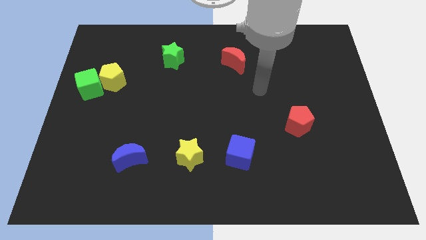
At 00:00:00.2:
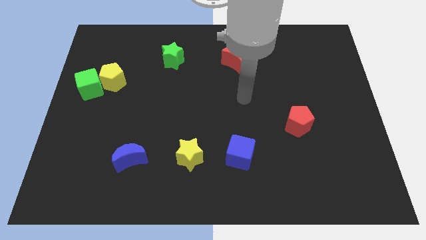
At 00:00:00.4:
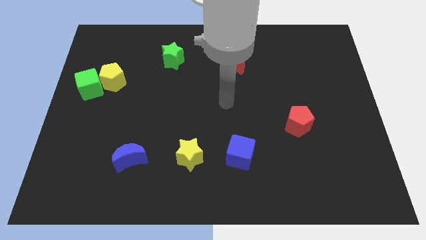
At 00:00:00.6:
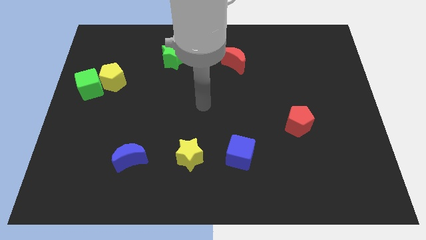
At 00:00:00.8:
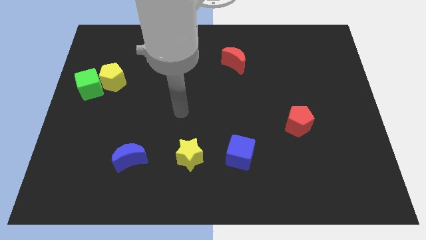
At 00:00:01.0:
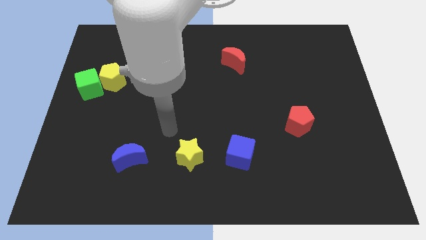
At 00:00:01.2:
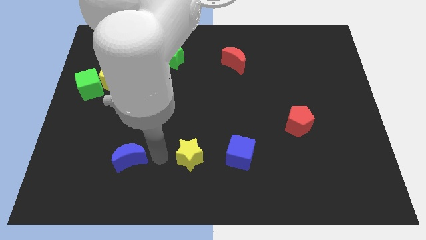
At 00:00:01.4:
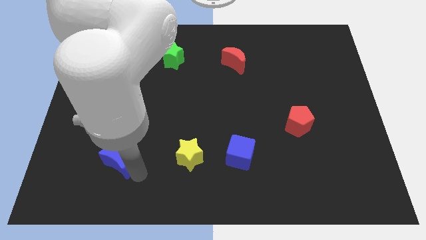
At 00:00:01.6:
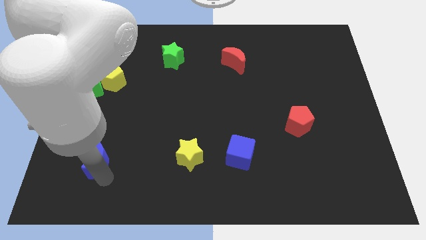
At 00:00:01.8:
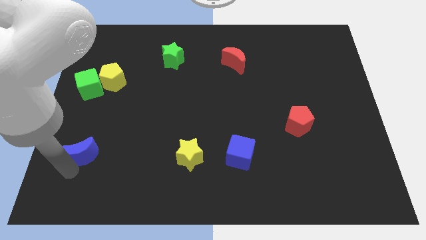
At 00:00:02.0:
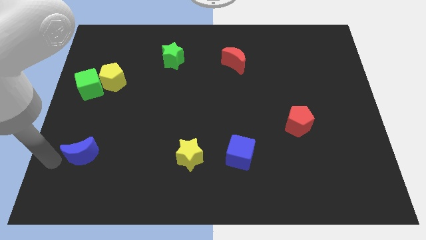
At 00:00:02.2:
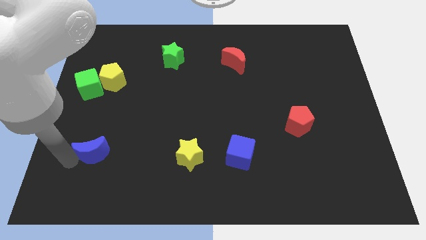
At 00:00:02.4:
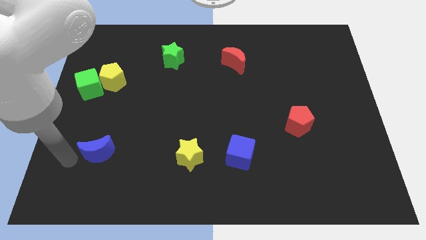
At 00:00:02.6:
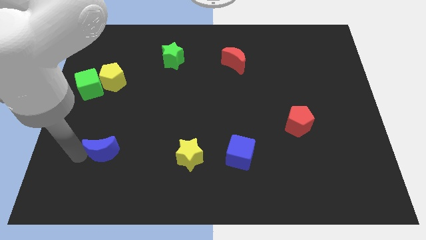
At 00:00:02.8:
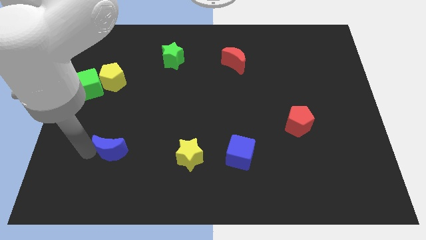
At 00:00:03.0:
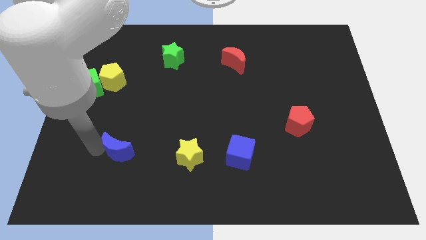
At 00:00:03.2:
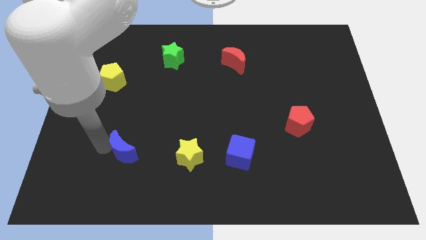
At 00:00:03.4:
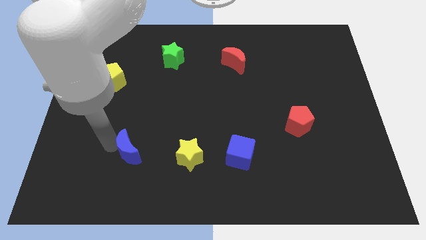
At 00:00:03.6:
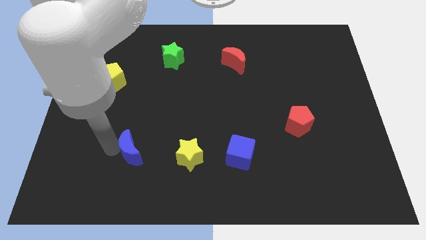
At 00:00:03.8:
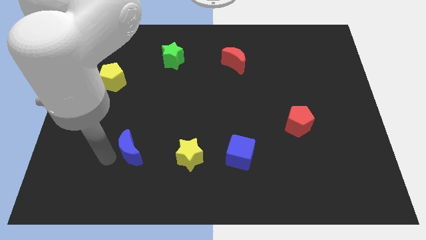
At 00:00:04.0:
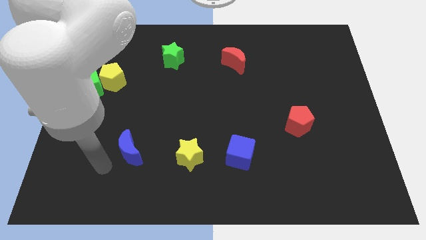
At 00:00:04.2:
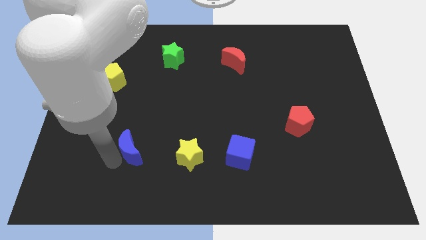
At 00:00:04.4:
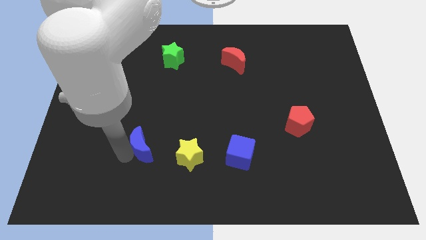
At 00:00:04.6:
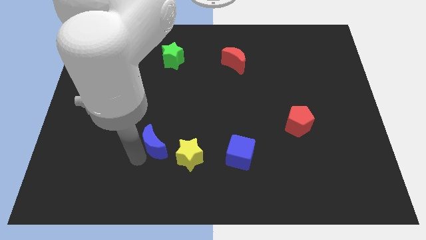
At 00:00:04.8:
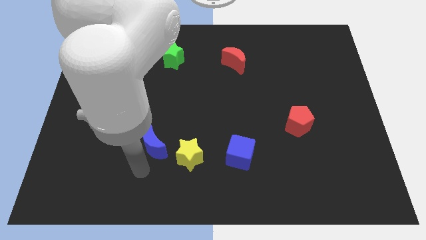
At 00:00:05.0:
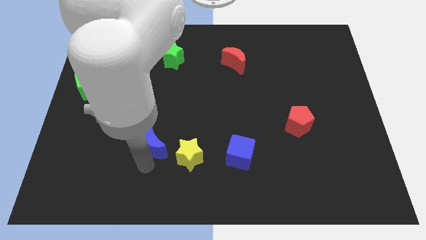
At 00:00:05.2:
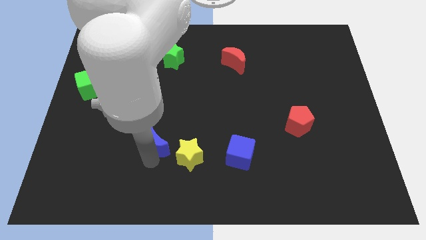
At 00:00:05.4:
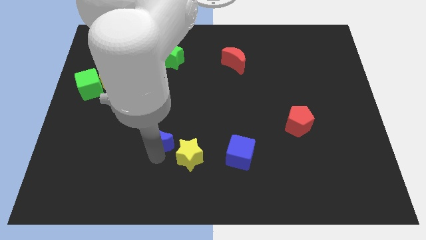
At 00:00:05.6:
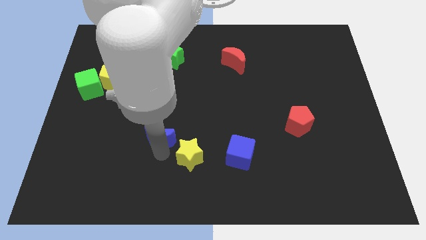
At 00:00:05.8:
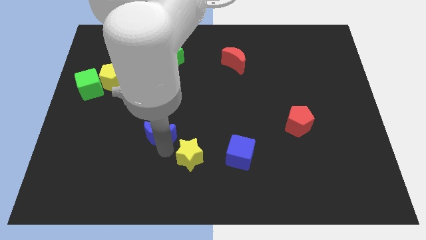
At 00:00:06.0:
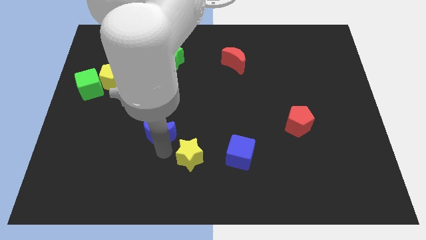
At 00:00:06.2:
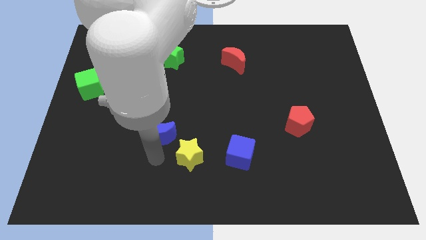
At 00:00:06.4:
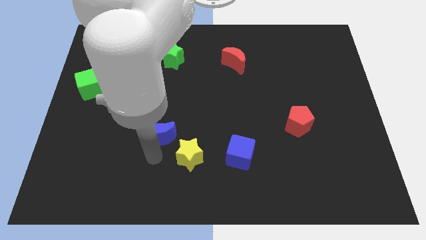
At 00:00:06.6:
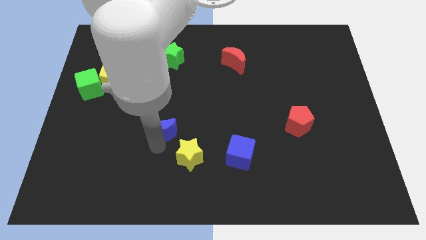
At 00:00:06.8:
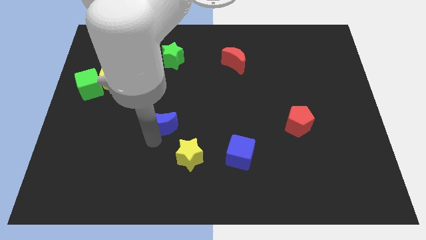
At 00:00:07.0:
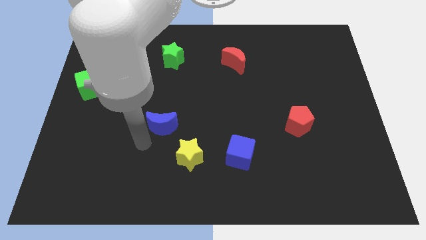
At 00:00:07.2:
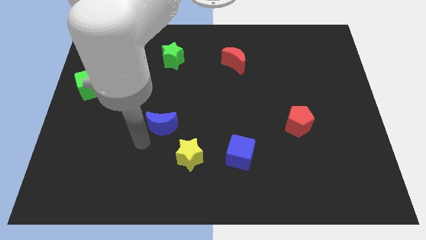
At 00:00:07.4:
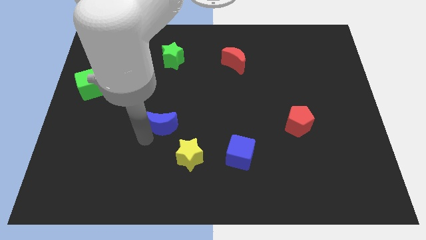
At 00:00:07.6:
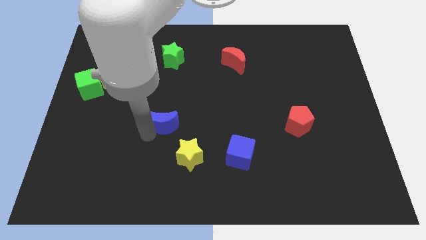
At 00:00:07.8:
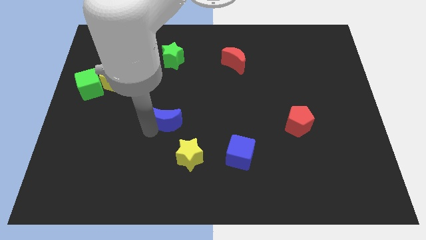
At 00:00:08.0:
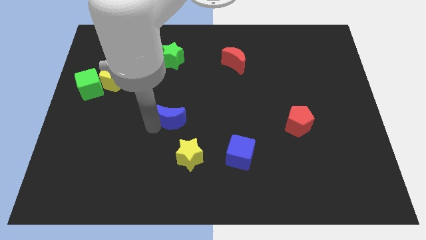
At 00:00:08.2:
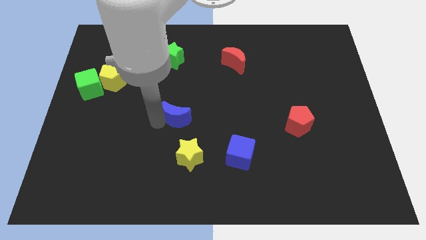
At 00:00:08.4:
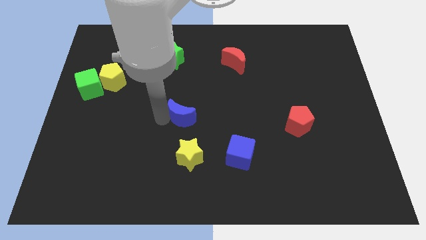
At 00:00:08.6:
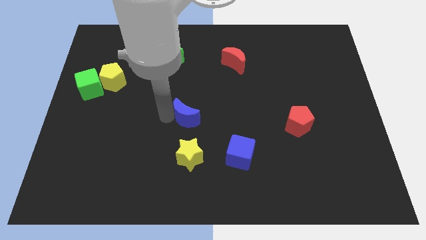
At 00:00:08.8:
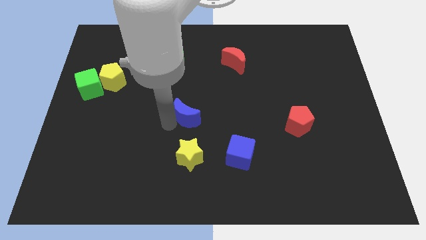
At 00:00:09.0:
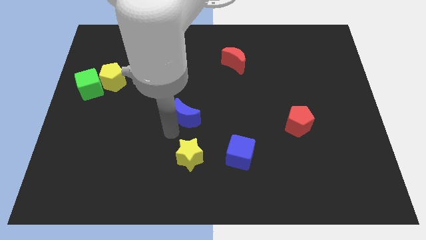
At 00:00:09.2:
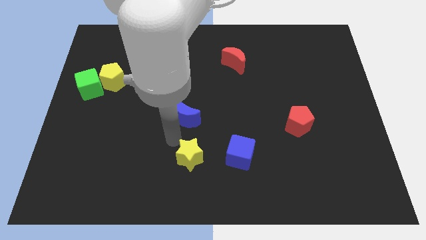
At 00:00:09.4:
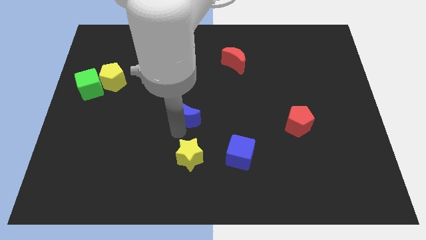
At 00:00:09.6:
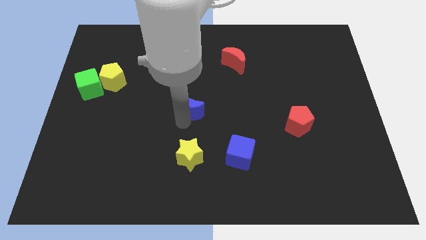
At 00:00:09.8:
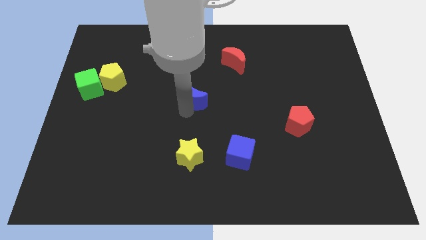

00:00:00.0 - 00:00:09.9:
move the blue moon up and to the right diagonally

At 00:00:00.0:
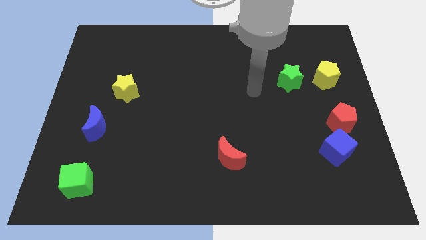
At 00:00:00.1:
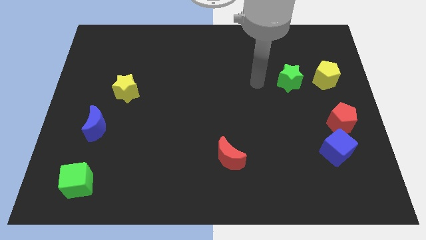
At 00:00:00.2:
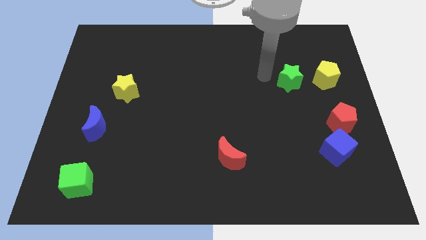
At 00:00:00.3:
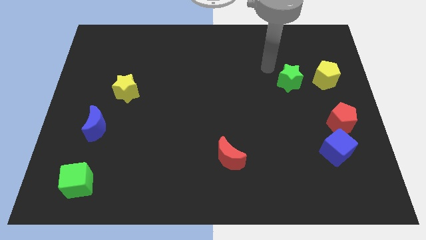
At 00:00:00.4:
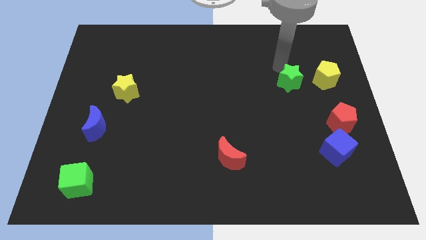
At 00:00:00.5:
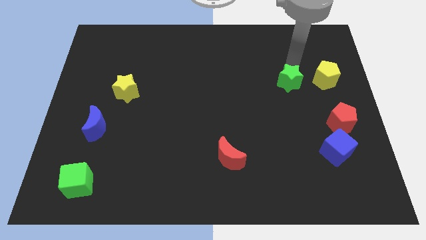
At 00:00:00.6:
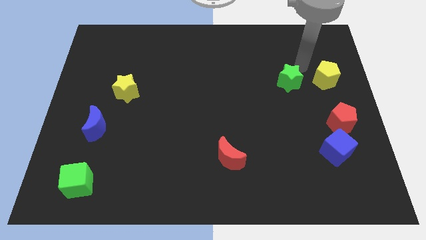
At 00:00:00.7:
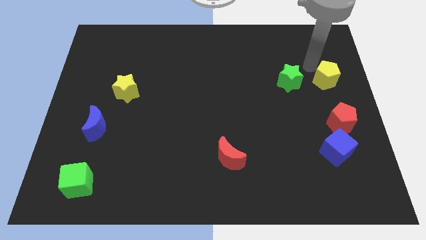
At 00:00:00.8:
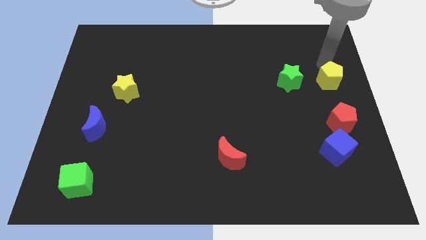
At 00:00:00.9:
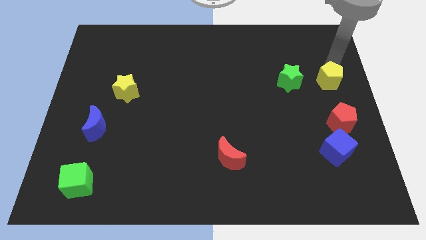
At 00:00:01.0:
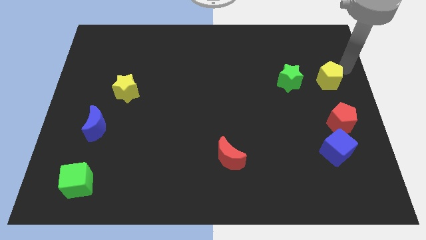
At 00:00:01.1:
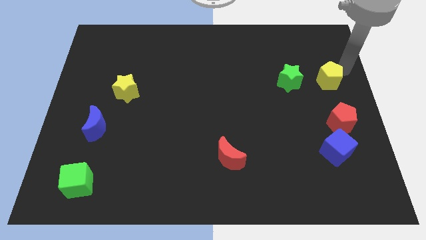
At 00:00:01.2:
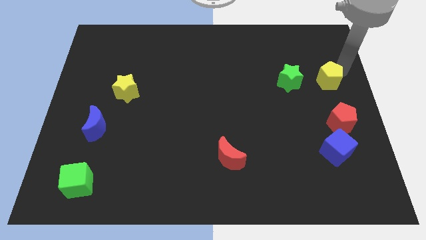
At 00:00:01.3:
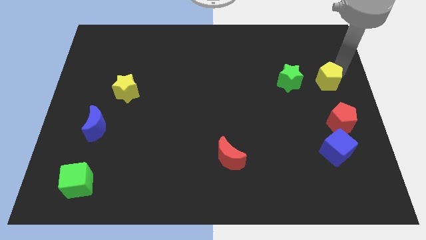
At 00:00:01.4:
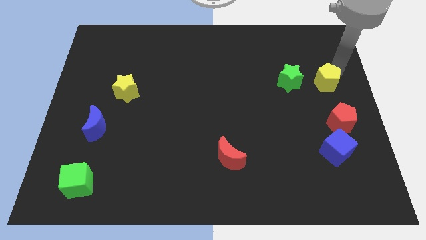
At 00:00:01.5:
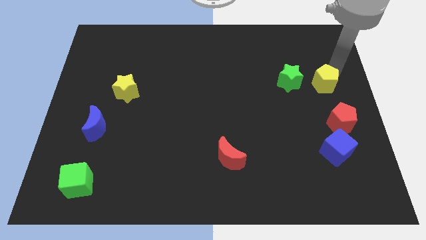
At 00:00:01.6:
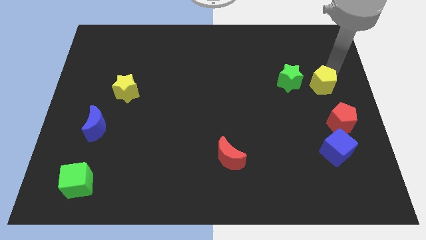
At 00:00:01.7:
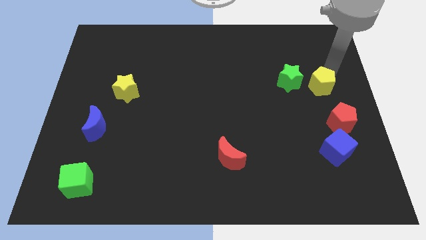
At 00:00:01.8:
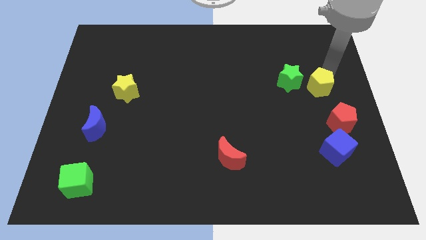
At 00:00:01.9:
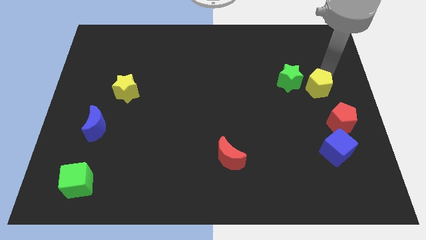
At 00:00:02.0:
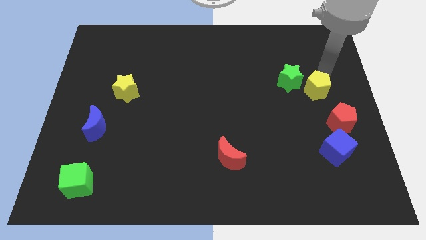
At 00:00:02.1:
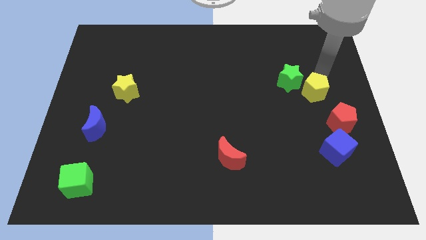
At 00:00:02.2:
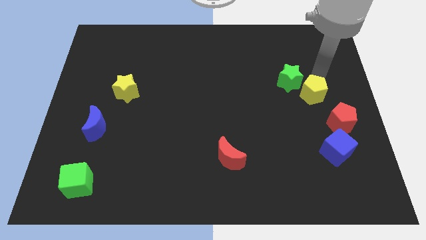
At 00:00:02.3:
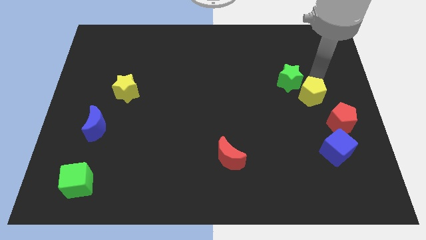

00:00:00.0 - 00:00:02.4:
slide the yellow pentagon down and then left a little

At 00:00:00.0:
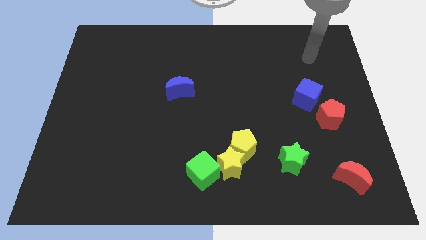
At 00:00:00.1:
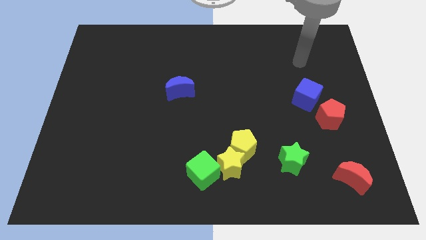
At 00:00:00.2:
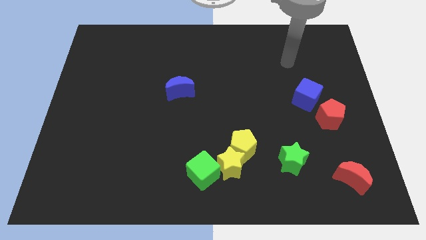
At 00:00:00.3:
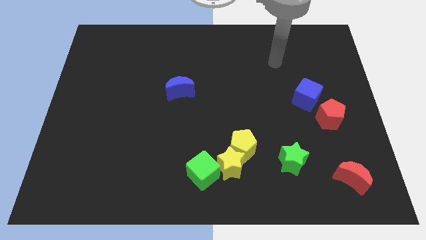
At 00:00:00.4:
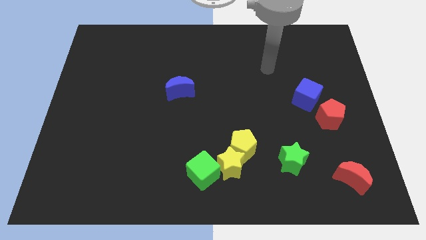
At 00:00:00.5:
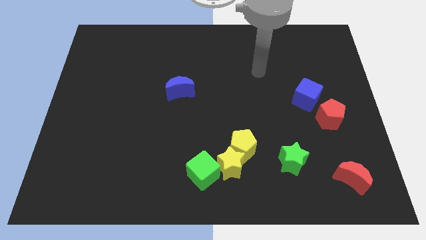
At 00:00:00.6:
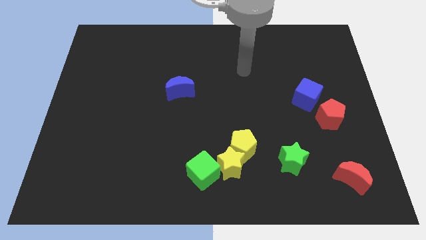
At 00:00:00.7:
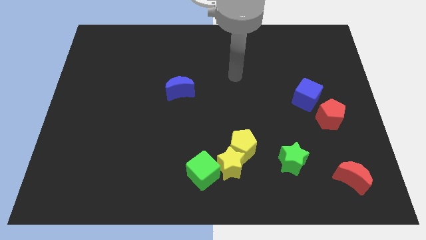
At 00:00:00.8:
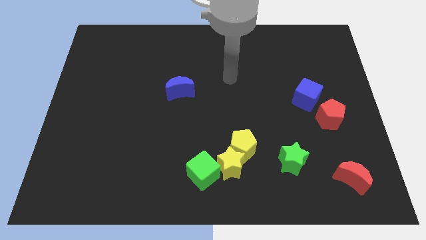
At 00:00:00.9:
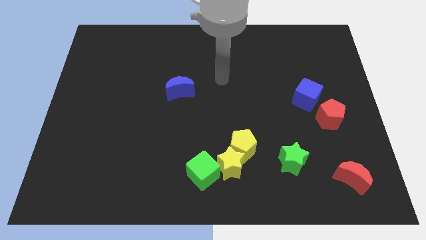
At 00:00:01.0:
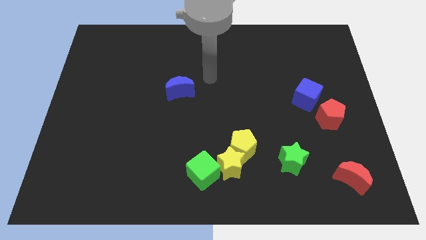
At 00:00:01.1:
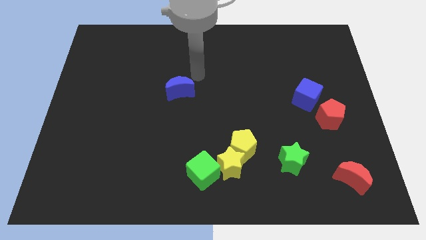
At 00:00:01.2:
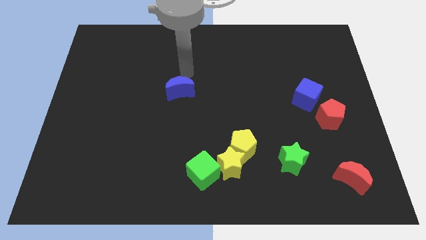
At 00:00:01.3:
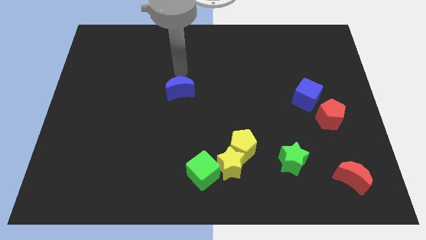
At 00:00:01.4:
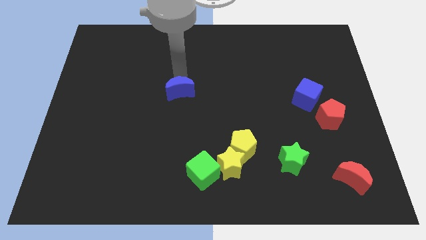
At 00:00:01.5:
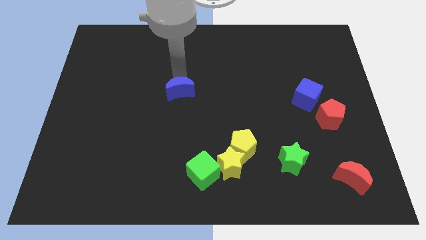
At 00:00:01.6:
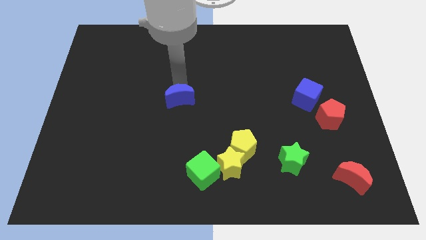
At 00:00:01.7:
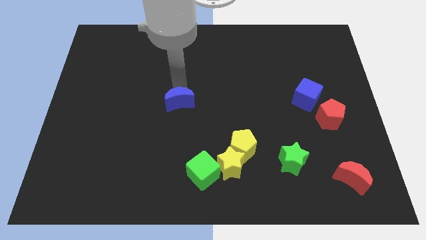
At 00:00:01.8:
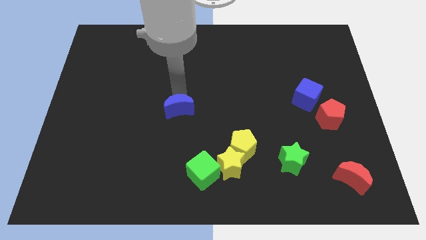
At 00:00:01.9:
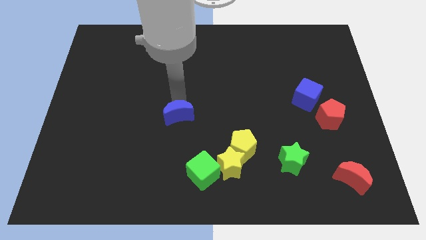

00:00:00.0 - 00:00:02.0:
push the blue moon down somewhat
